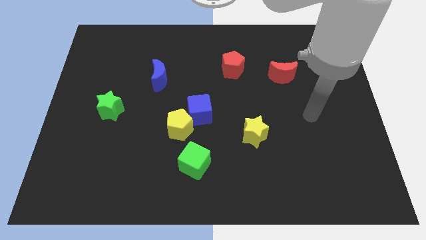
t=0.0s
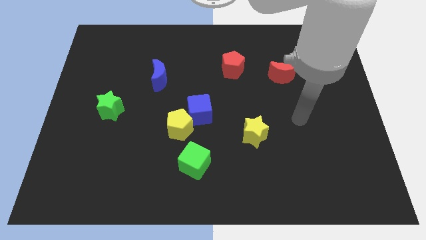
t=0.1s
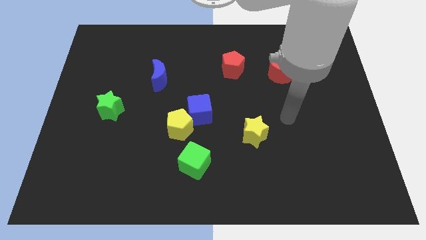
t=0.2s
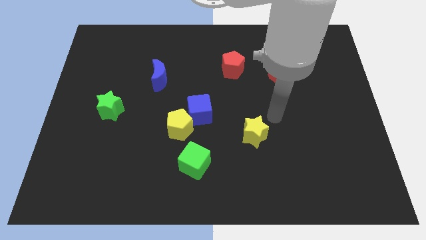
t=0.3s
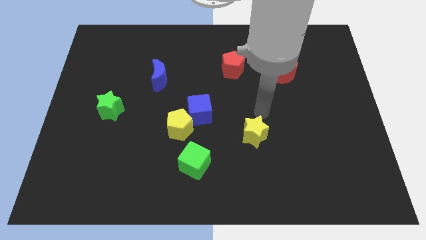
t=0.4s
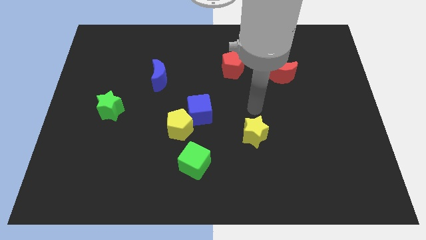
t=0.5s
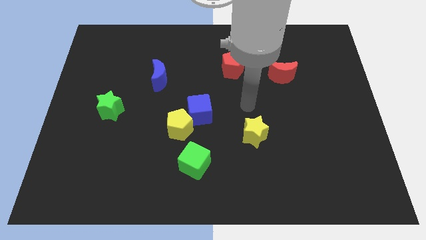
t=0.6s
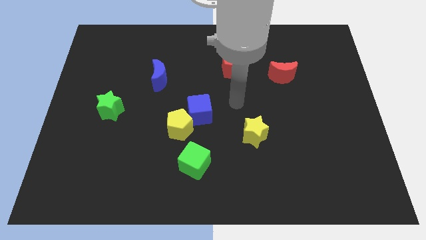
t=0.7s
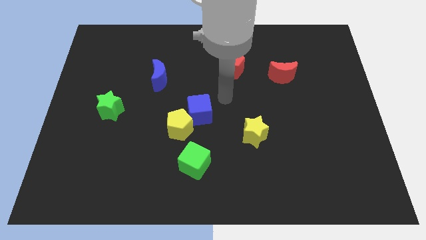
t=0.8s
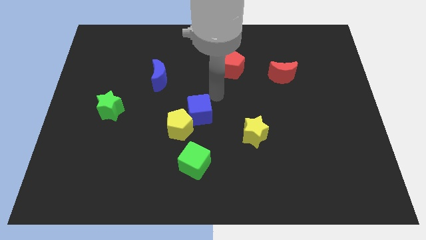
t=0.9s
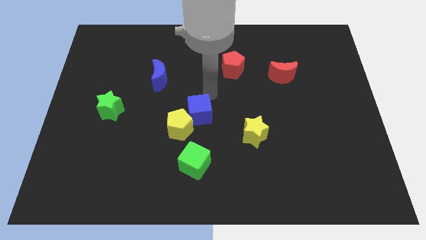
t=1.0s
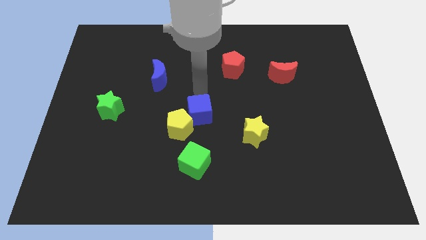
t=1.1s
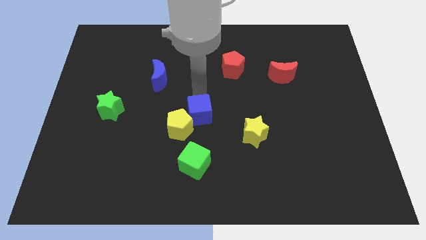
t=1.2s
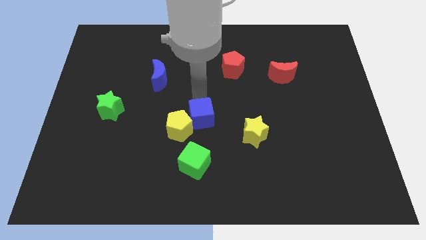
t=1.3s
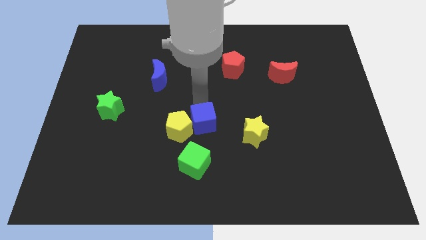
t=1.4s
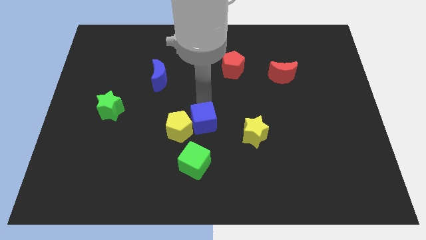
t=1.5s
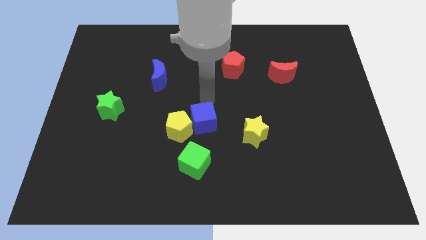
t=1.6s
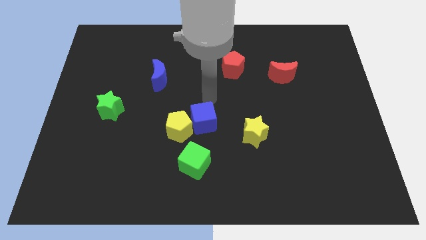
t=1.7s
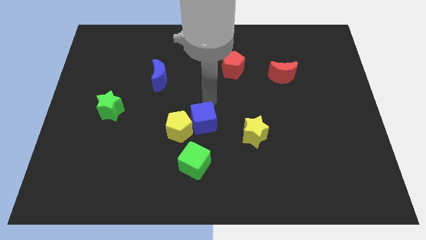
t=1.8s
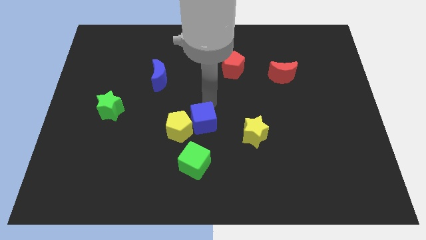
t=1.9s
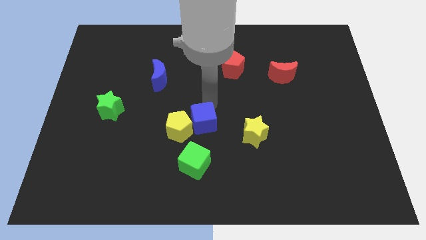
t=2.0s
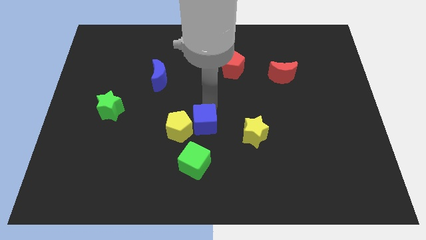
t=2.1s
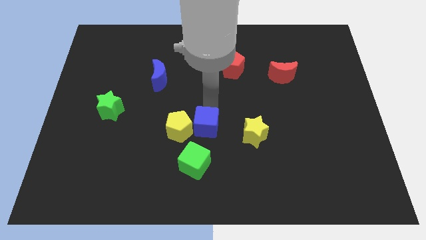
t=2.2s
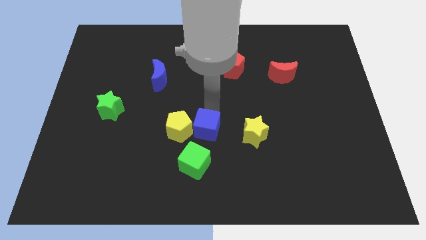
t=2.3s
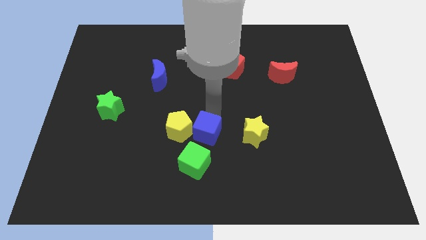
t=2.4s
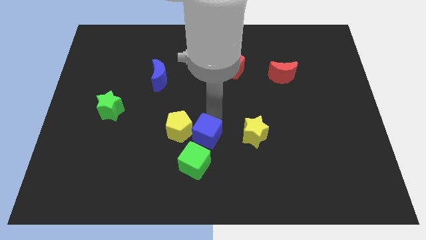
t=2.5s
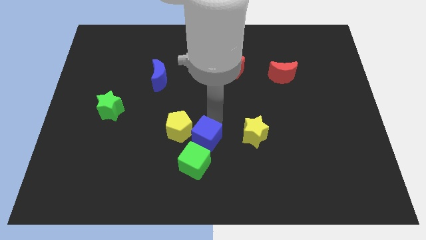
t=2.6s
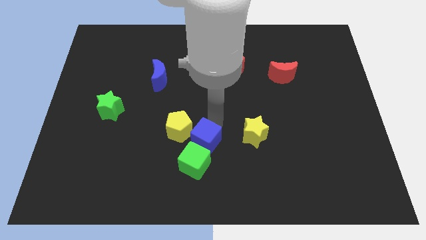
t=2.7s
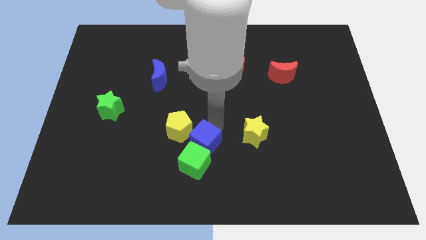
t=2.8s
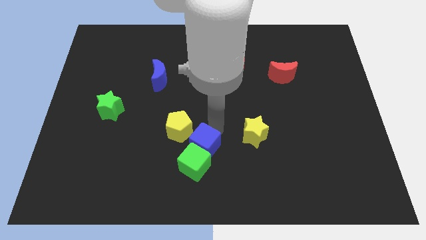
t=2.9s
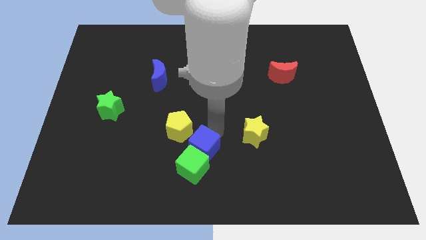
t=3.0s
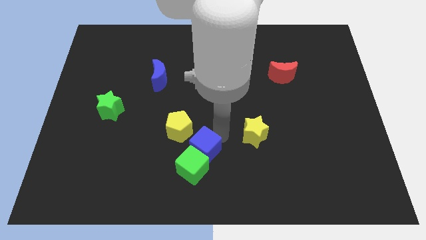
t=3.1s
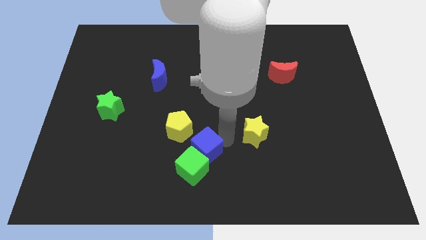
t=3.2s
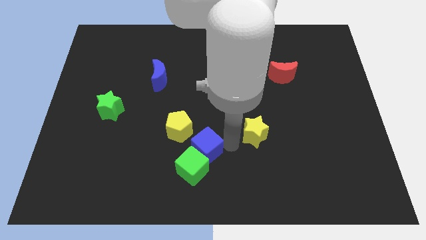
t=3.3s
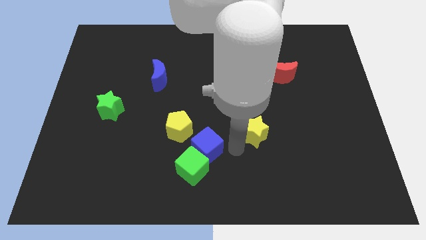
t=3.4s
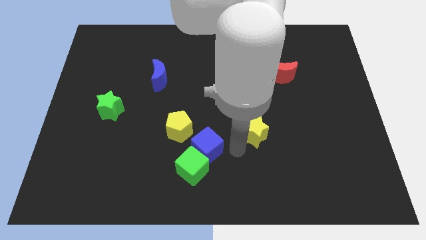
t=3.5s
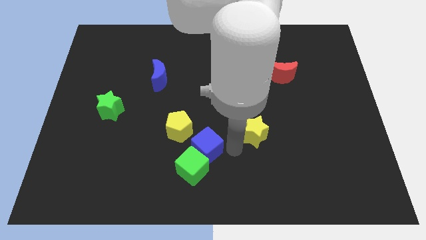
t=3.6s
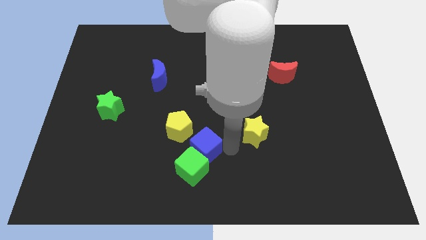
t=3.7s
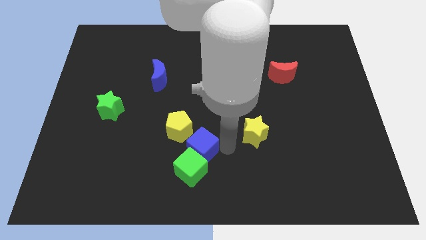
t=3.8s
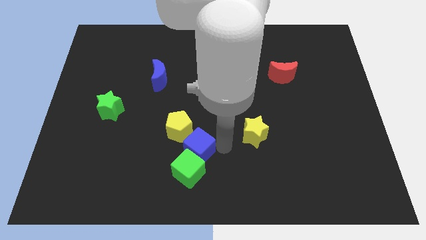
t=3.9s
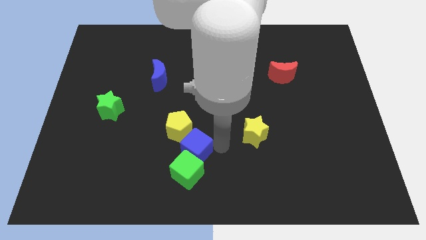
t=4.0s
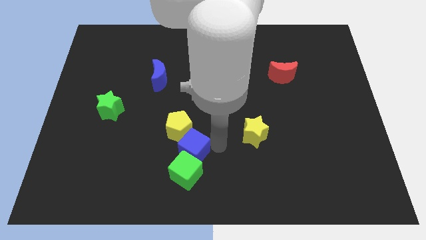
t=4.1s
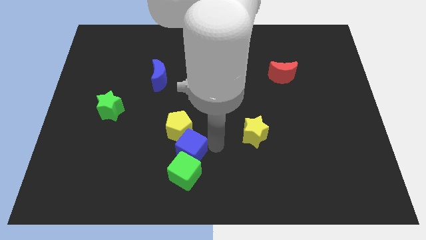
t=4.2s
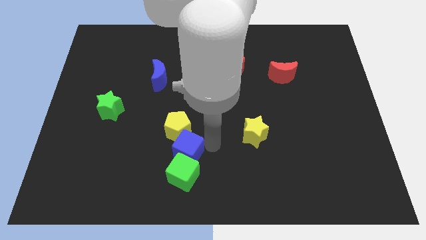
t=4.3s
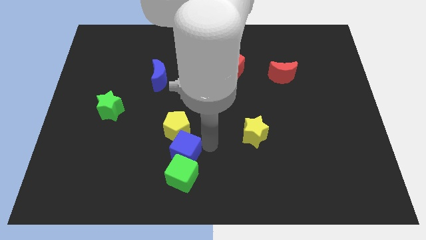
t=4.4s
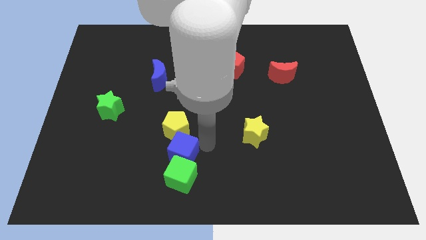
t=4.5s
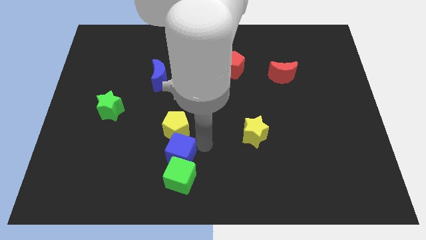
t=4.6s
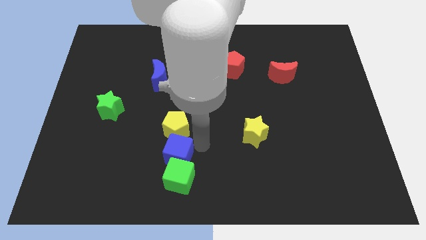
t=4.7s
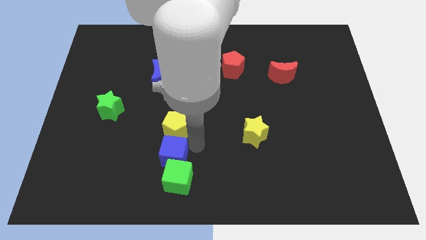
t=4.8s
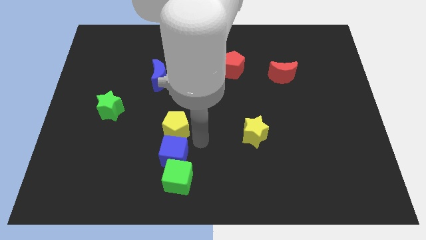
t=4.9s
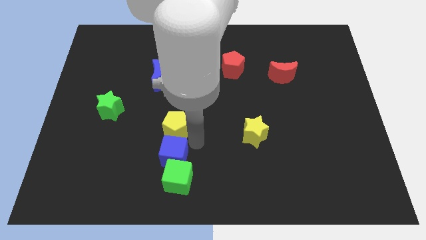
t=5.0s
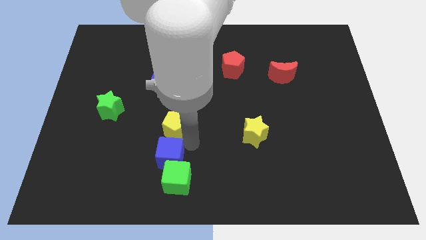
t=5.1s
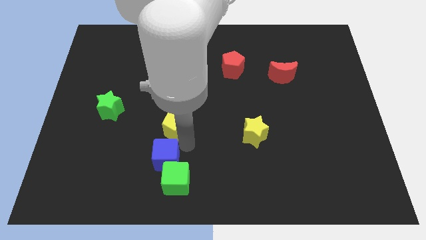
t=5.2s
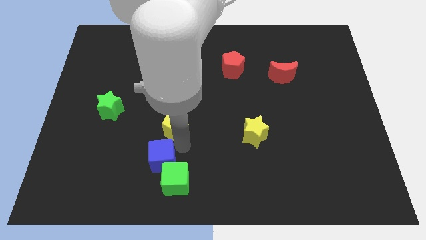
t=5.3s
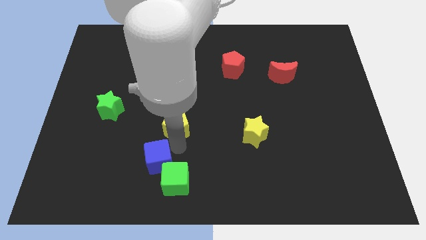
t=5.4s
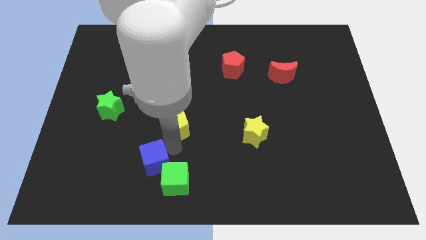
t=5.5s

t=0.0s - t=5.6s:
move the blue cube just left of the green cube

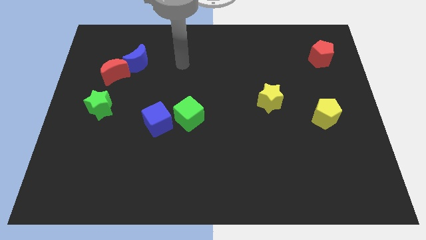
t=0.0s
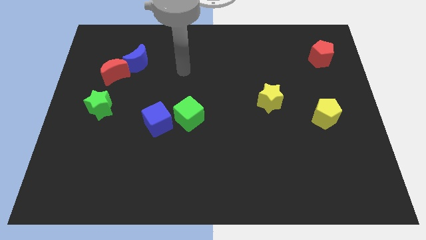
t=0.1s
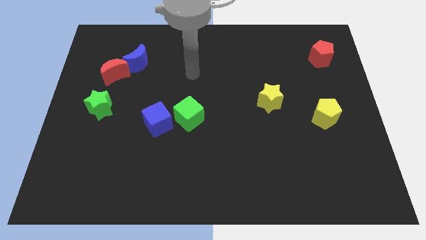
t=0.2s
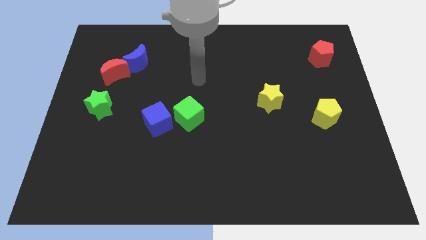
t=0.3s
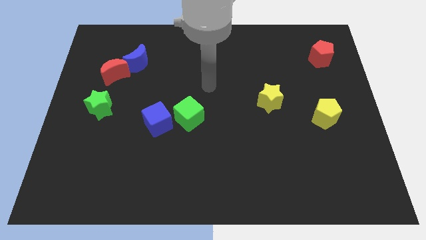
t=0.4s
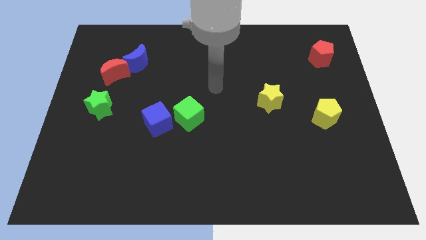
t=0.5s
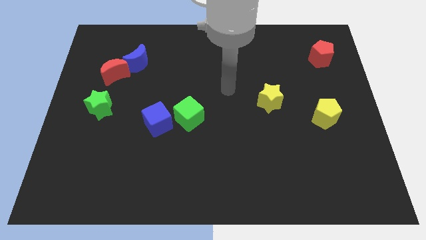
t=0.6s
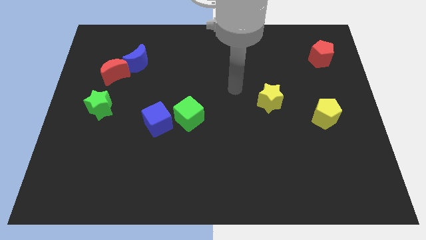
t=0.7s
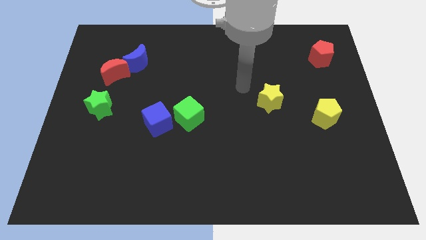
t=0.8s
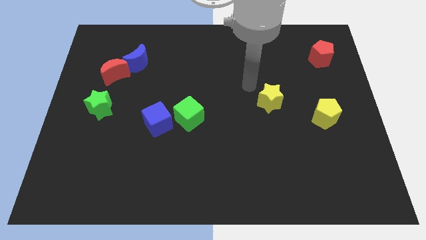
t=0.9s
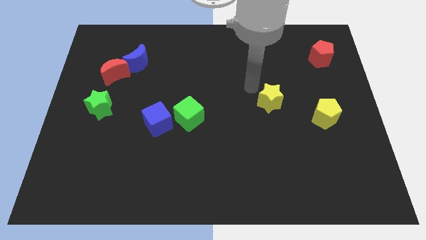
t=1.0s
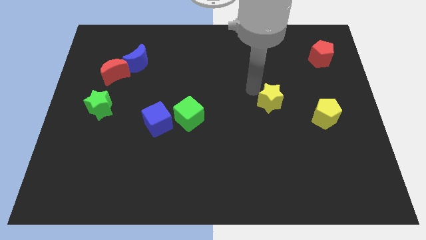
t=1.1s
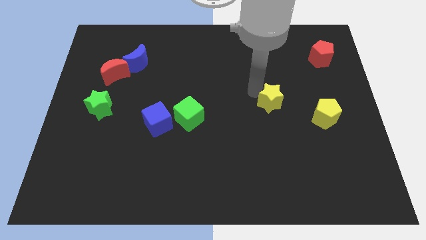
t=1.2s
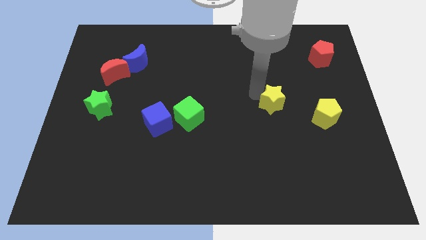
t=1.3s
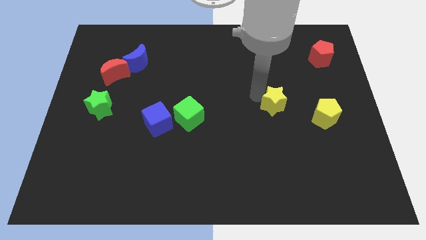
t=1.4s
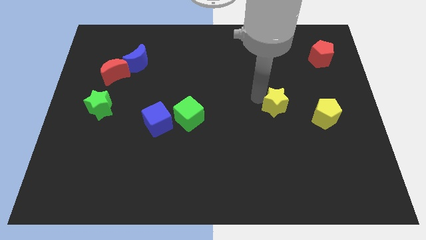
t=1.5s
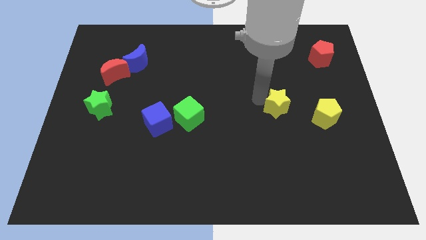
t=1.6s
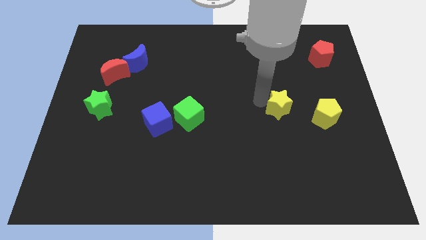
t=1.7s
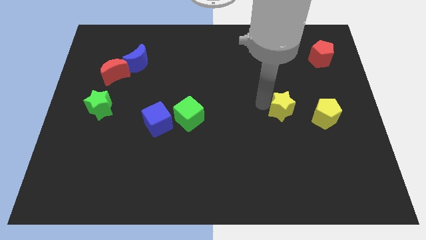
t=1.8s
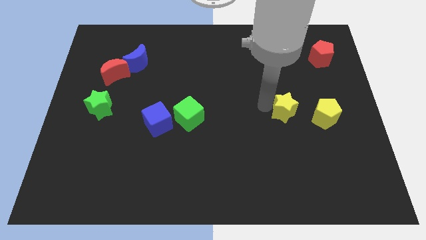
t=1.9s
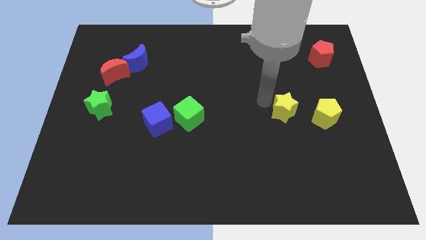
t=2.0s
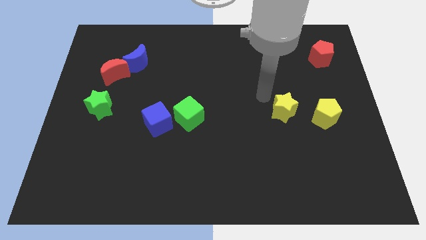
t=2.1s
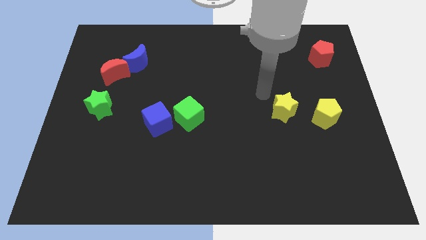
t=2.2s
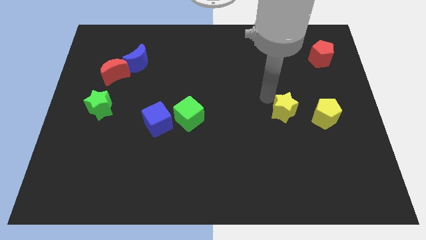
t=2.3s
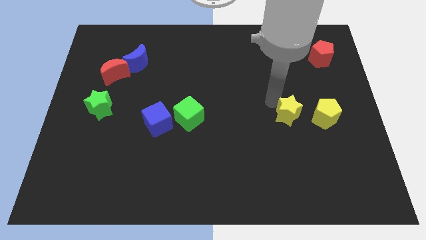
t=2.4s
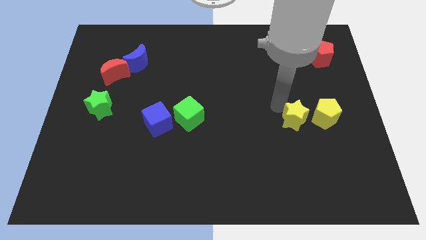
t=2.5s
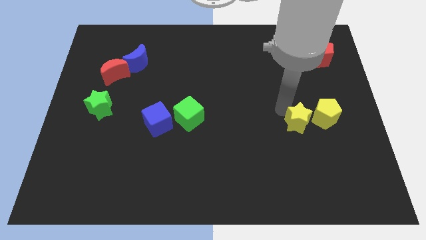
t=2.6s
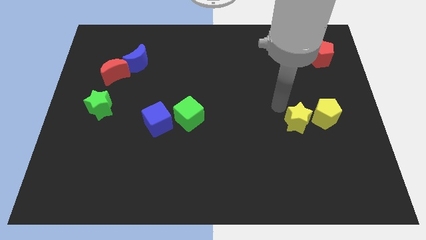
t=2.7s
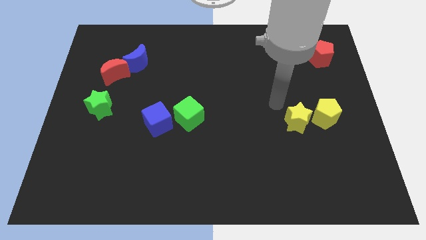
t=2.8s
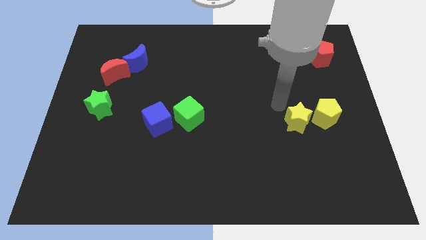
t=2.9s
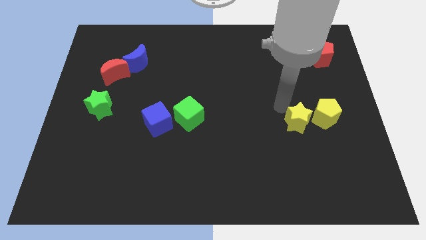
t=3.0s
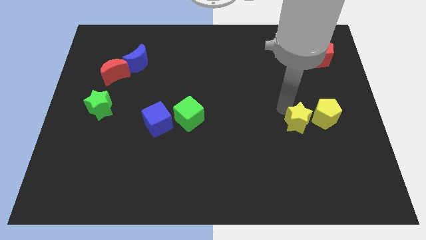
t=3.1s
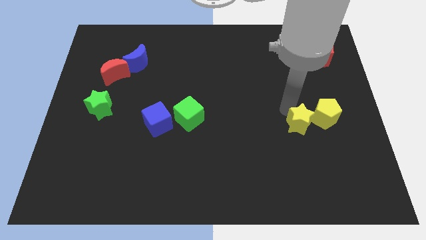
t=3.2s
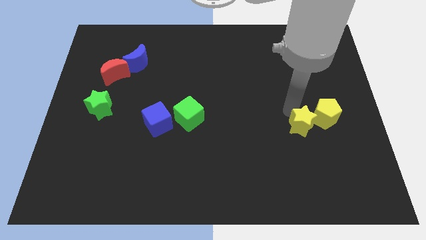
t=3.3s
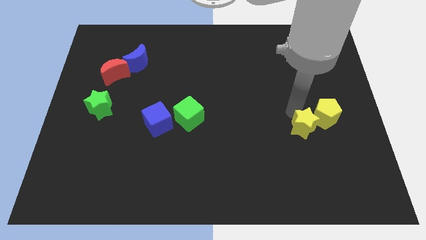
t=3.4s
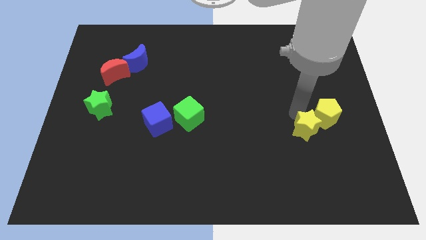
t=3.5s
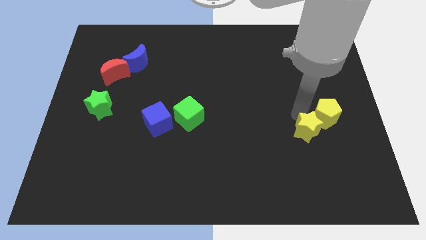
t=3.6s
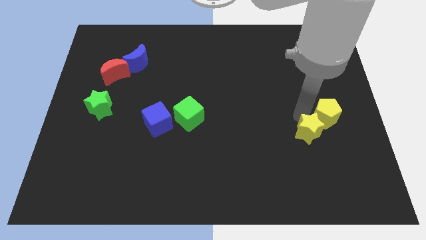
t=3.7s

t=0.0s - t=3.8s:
put the yellow star to the bottom side of the yellow pentagon
